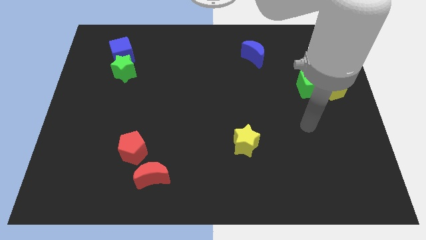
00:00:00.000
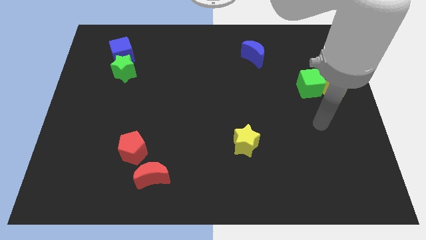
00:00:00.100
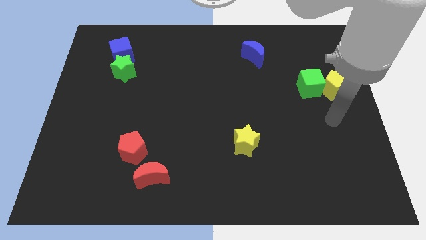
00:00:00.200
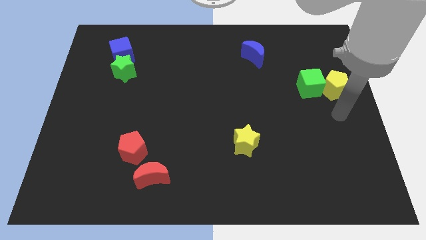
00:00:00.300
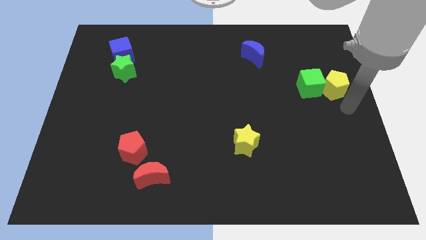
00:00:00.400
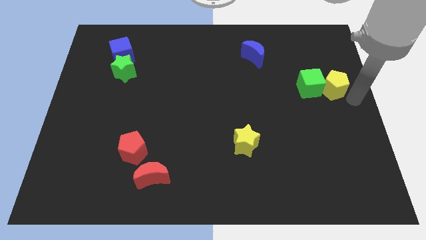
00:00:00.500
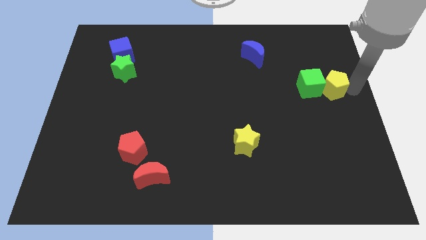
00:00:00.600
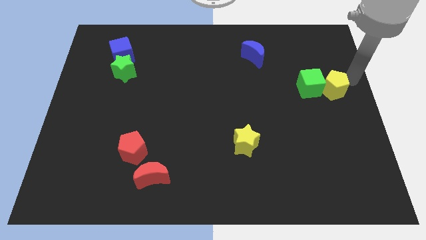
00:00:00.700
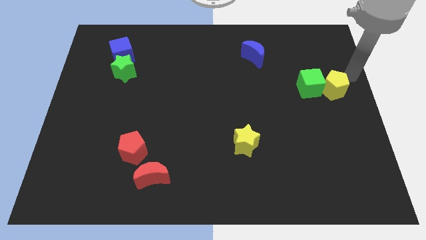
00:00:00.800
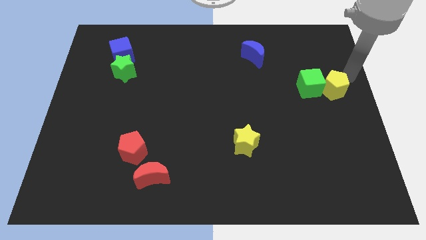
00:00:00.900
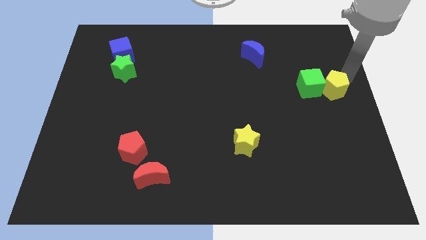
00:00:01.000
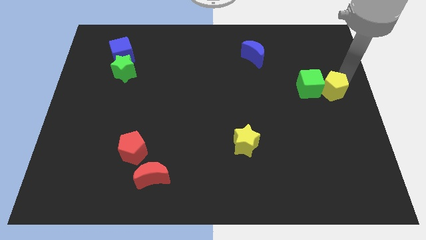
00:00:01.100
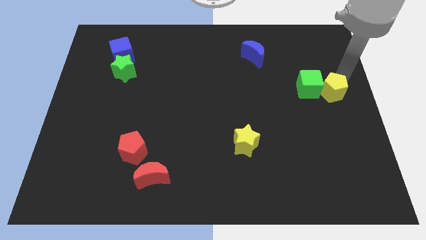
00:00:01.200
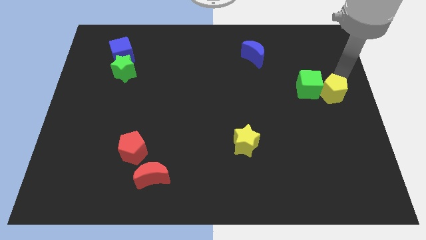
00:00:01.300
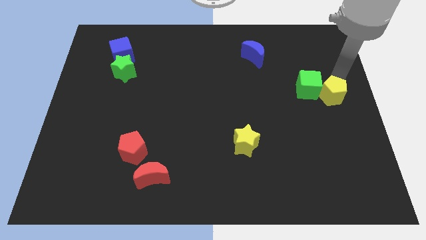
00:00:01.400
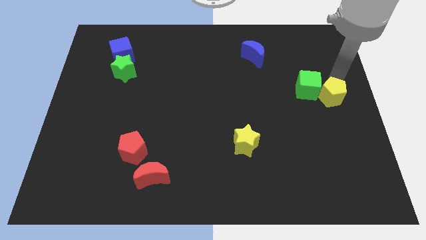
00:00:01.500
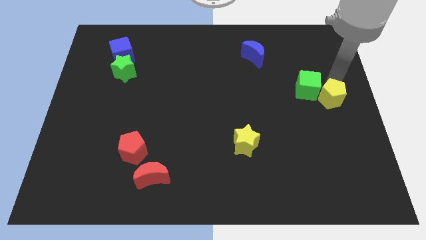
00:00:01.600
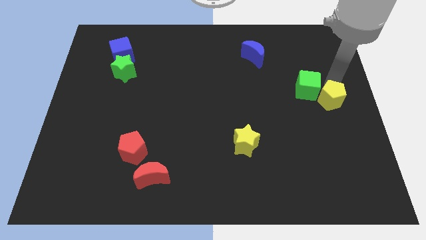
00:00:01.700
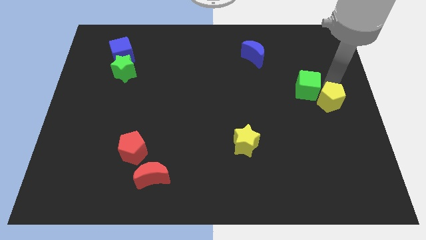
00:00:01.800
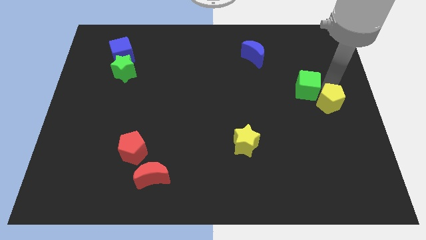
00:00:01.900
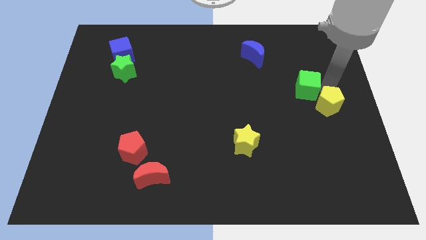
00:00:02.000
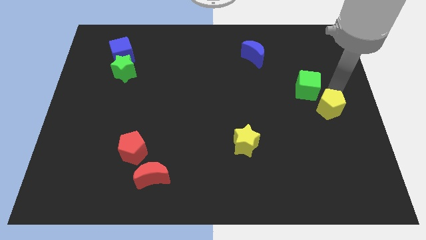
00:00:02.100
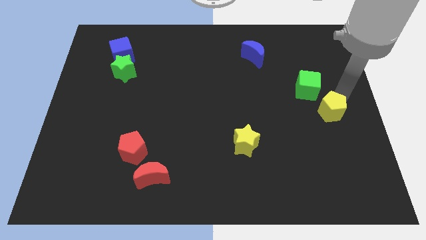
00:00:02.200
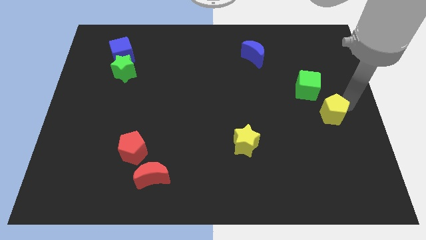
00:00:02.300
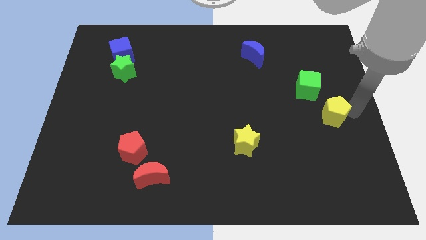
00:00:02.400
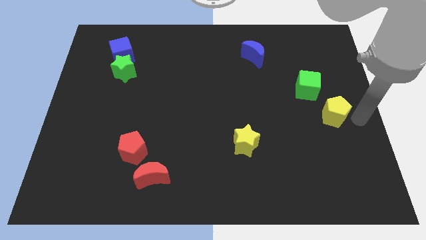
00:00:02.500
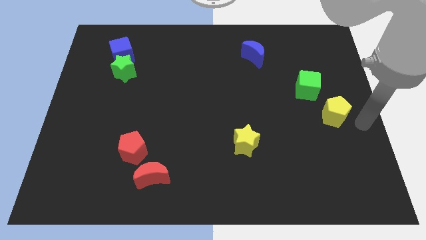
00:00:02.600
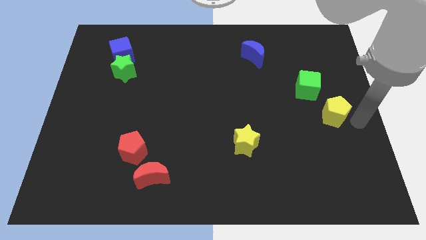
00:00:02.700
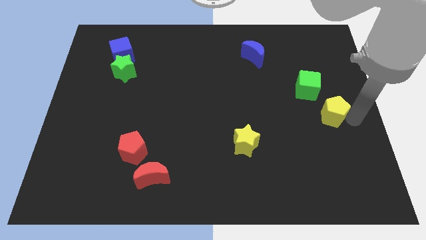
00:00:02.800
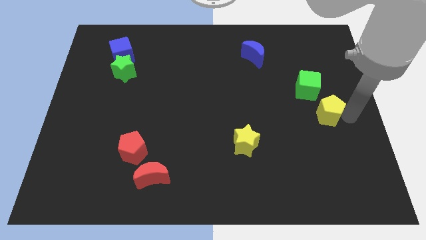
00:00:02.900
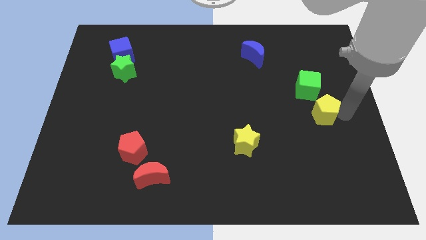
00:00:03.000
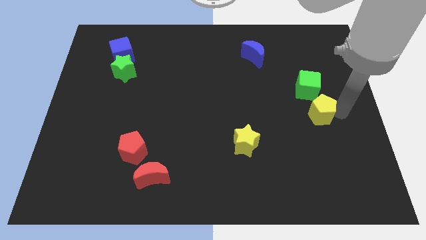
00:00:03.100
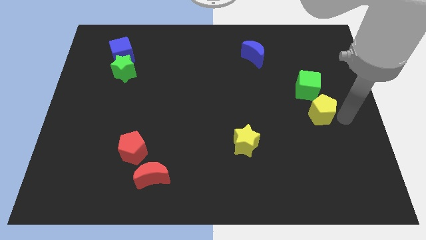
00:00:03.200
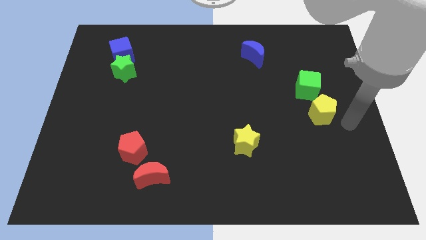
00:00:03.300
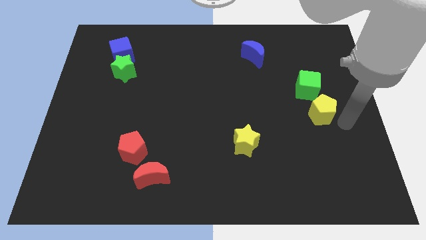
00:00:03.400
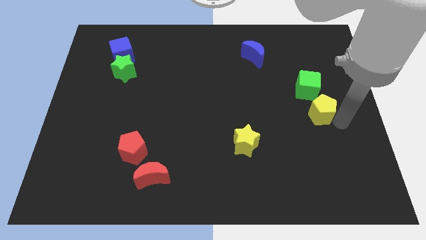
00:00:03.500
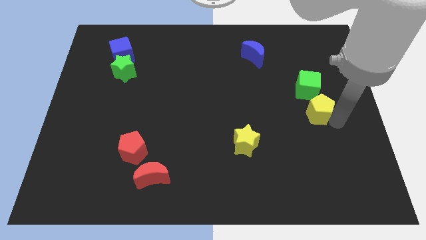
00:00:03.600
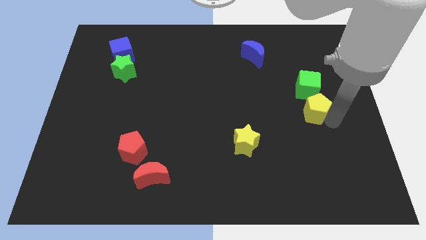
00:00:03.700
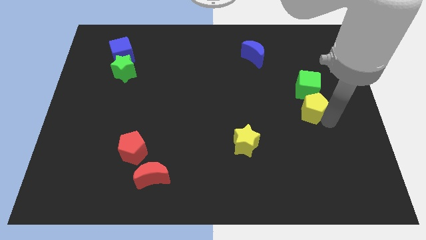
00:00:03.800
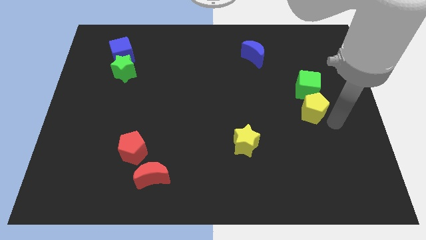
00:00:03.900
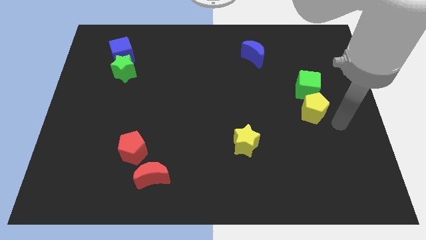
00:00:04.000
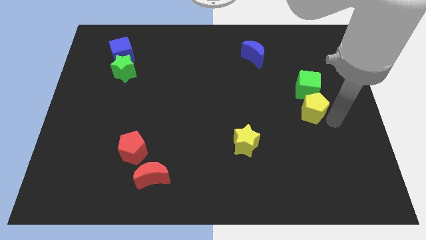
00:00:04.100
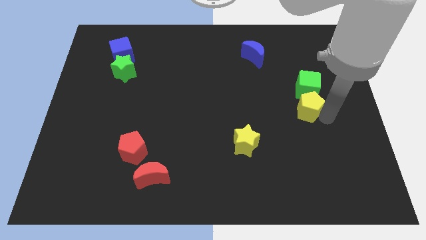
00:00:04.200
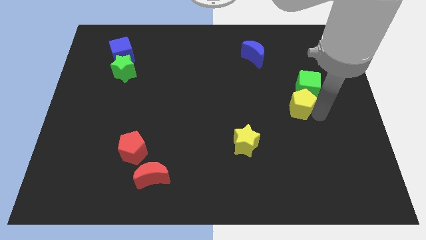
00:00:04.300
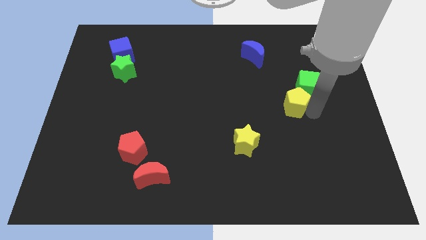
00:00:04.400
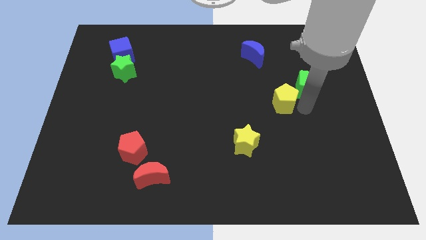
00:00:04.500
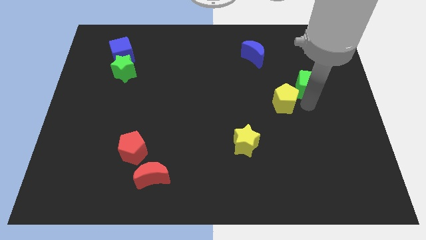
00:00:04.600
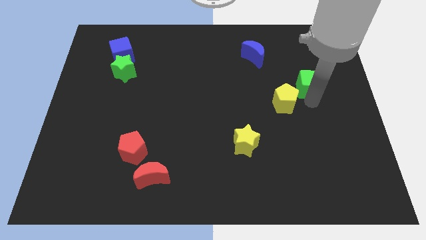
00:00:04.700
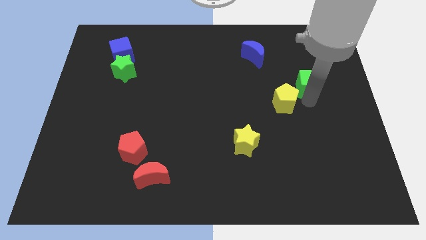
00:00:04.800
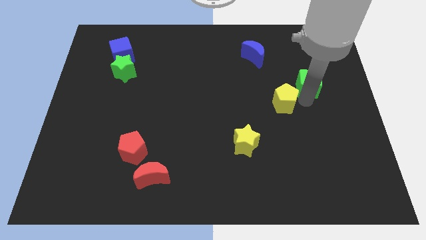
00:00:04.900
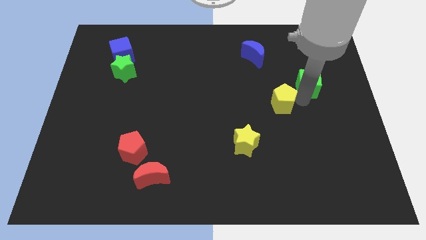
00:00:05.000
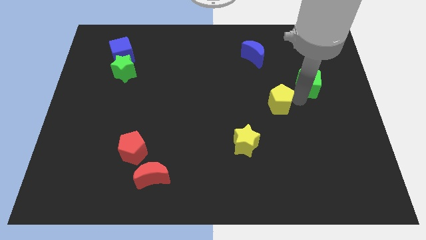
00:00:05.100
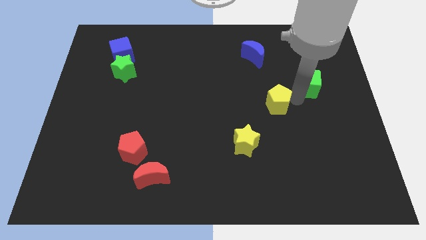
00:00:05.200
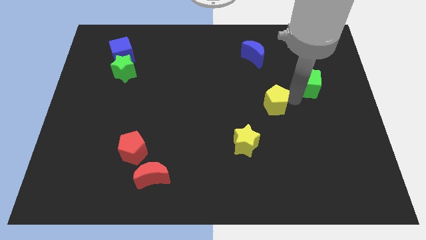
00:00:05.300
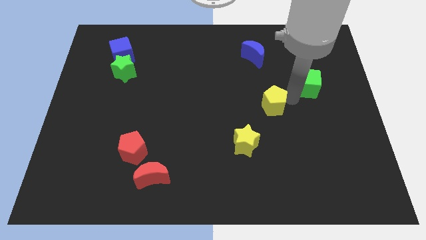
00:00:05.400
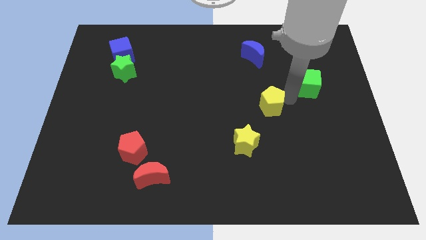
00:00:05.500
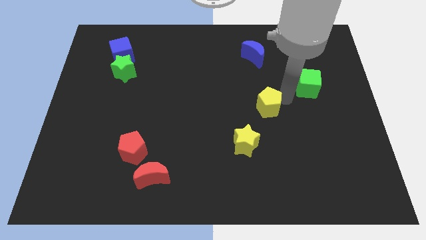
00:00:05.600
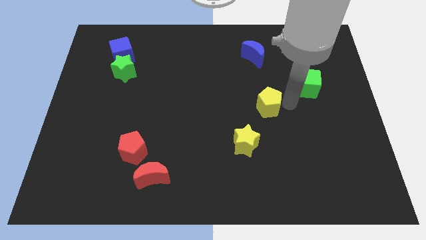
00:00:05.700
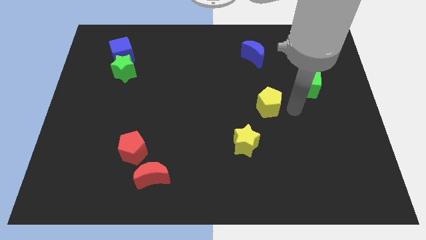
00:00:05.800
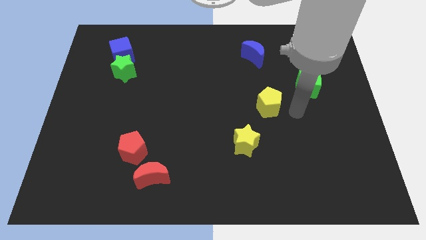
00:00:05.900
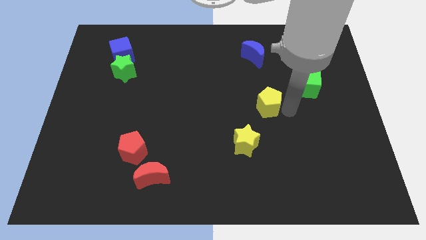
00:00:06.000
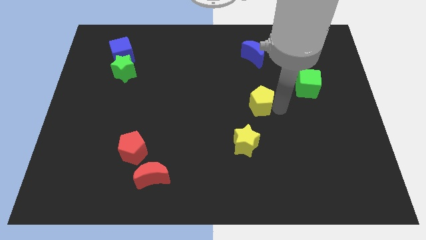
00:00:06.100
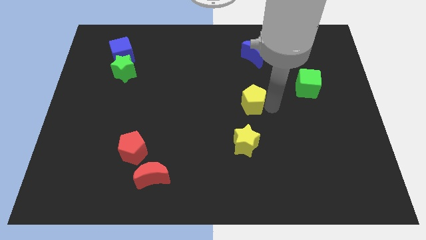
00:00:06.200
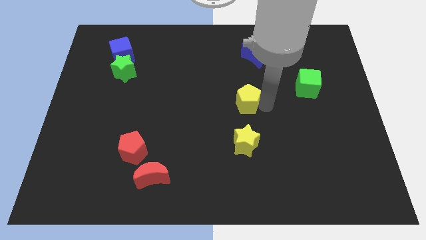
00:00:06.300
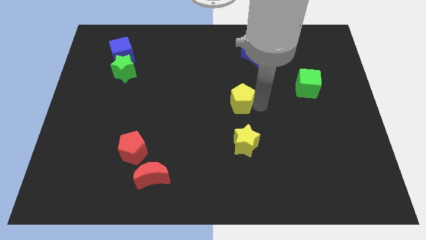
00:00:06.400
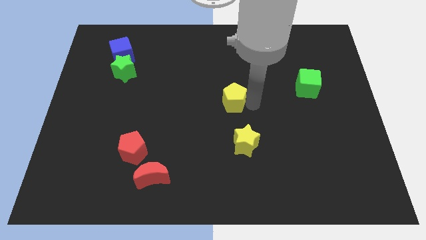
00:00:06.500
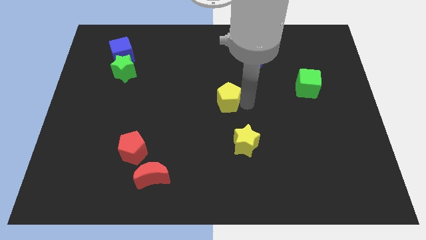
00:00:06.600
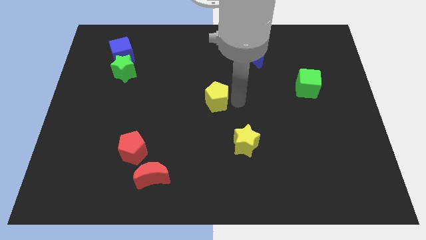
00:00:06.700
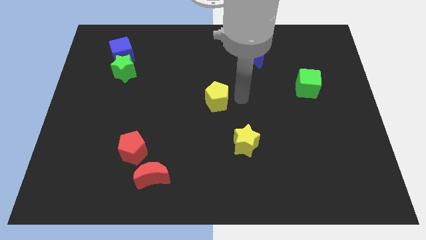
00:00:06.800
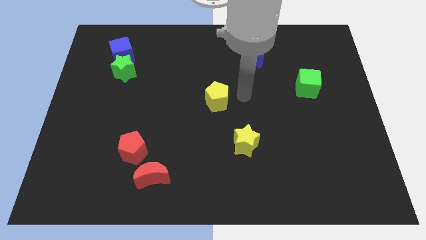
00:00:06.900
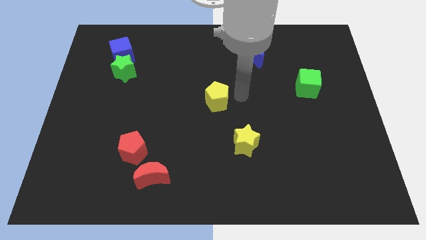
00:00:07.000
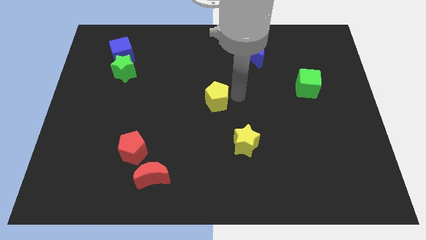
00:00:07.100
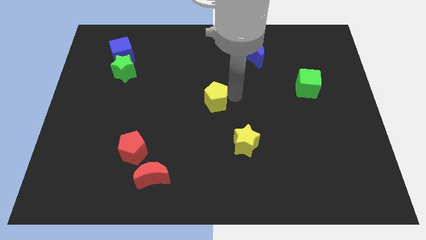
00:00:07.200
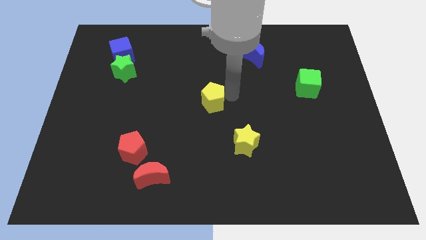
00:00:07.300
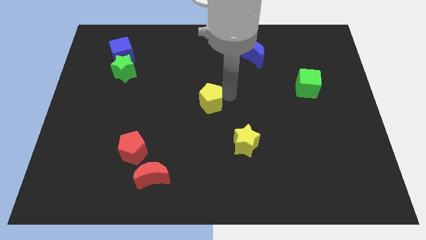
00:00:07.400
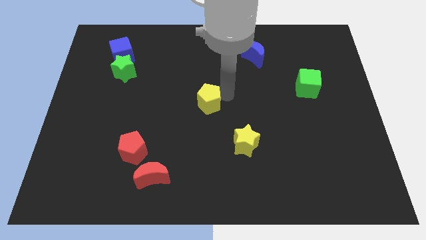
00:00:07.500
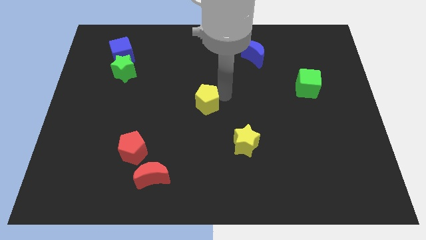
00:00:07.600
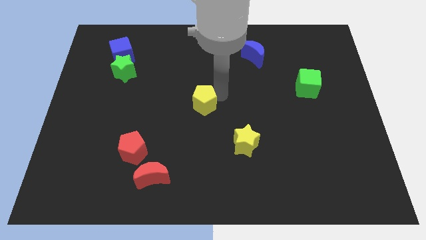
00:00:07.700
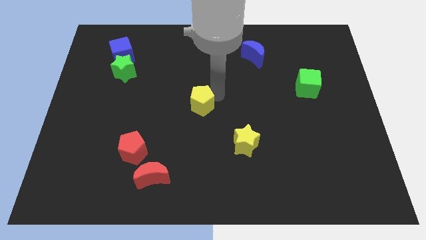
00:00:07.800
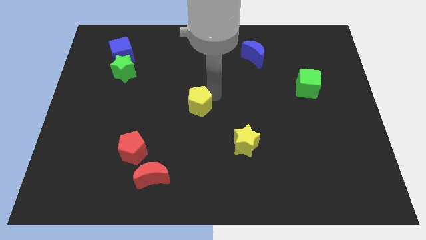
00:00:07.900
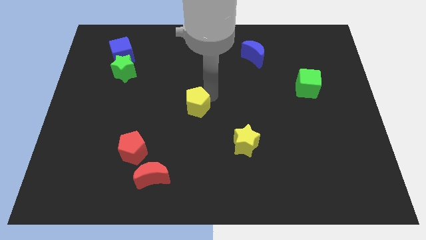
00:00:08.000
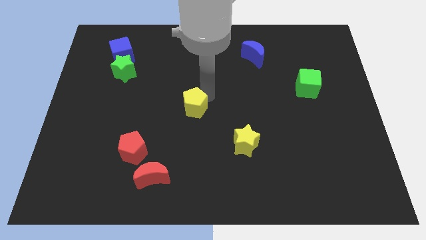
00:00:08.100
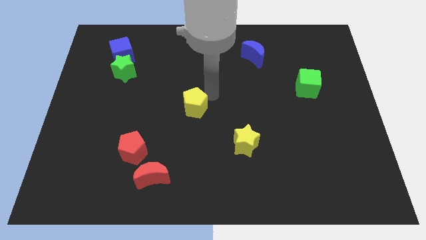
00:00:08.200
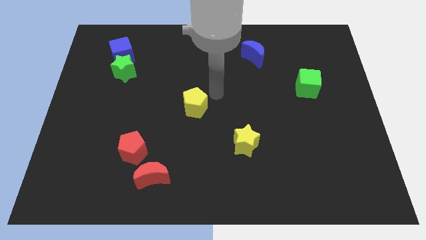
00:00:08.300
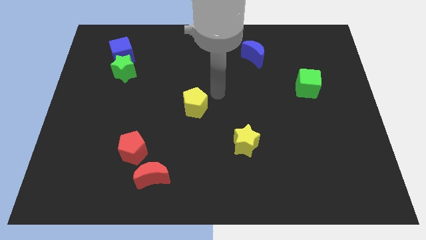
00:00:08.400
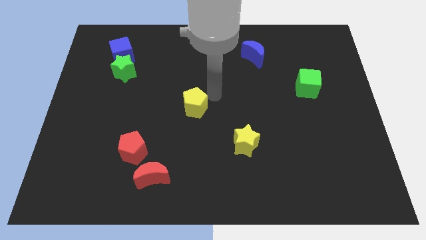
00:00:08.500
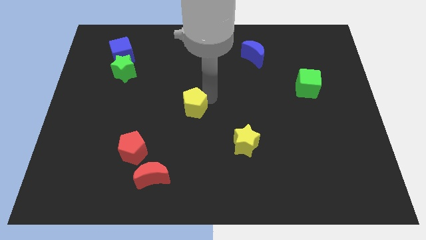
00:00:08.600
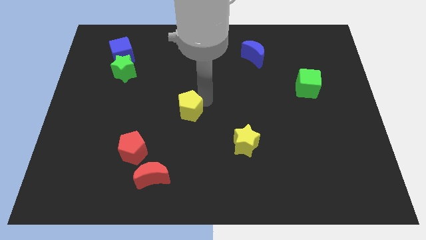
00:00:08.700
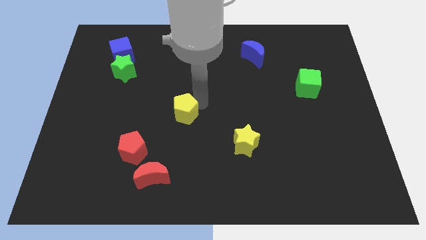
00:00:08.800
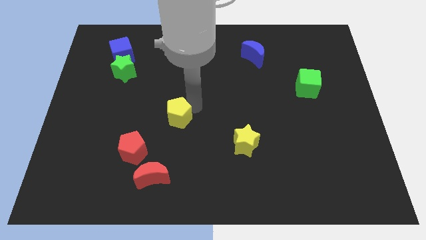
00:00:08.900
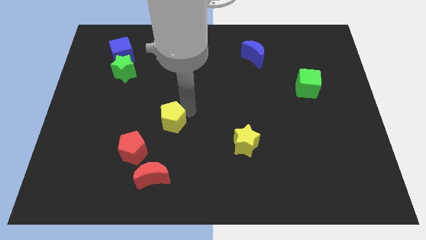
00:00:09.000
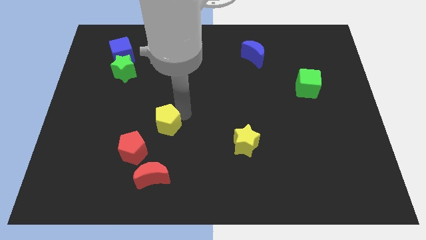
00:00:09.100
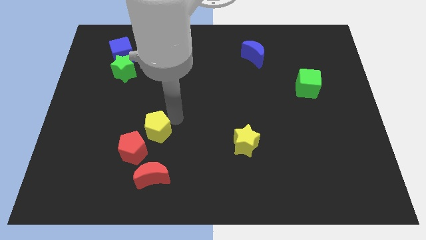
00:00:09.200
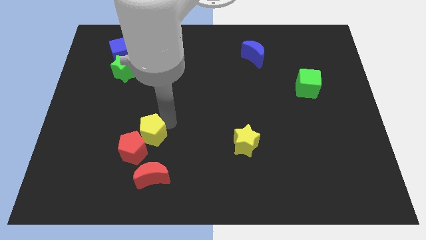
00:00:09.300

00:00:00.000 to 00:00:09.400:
put the yellow pentagon to the red pentagon
